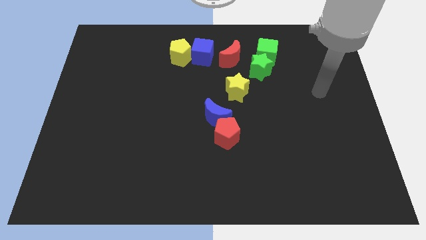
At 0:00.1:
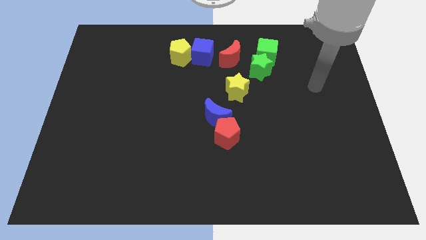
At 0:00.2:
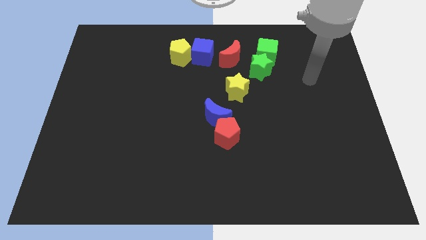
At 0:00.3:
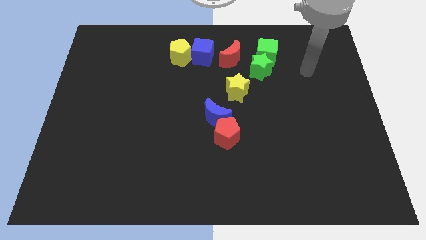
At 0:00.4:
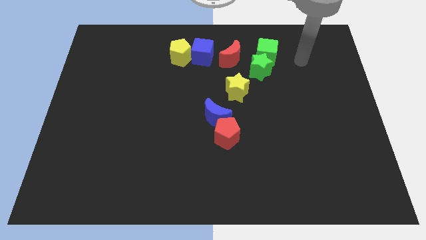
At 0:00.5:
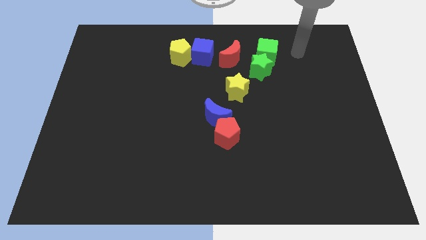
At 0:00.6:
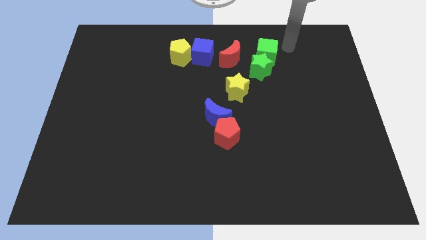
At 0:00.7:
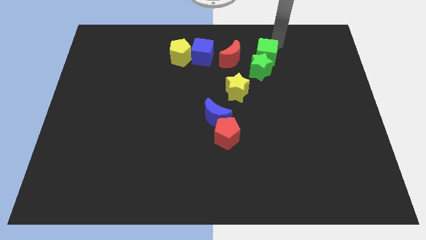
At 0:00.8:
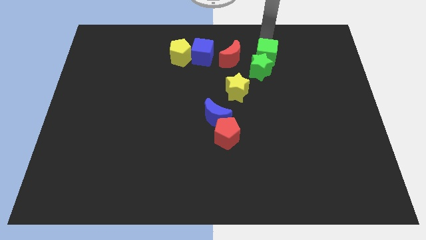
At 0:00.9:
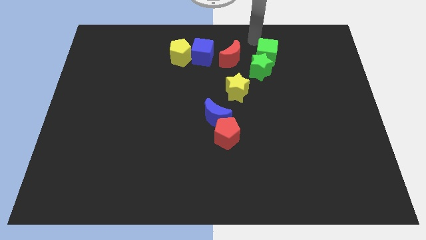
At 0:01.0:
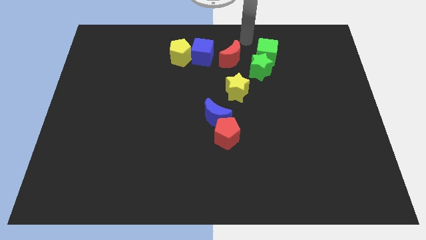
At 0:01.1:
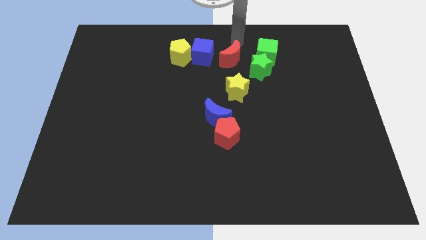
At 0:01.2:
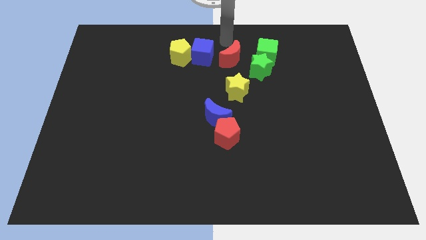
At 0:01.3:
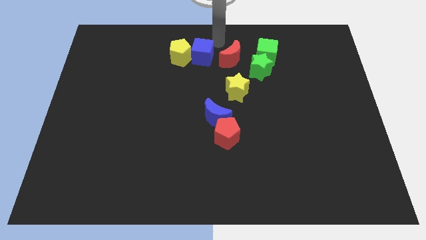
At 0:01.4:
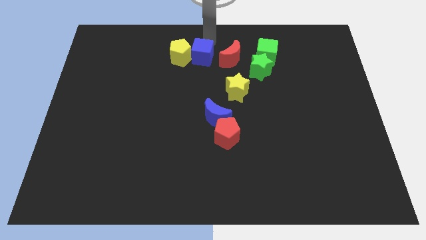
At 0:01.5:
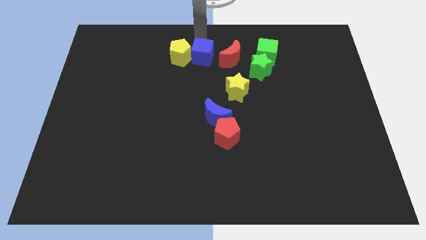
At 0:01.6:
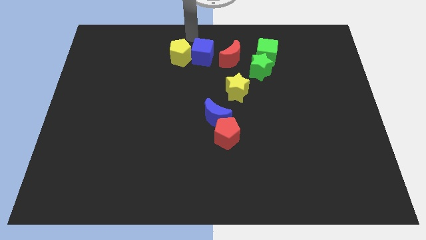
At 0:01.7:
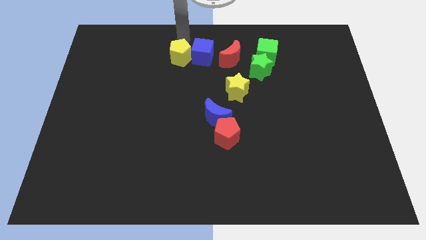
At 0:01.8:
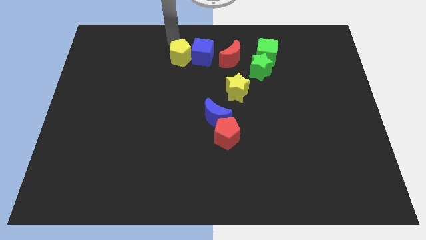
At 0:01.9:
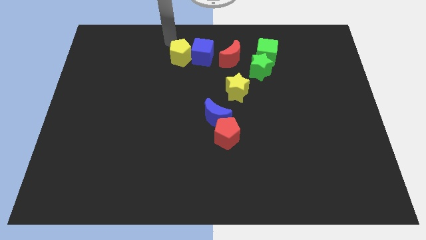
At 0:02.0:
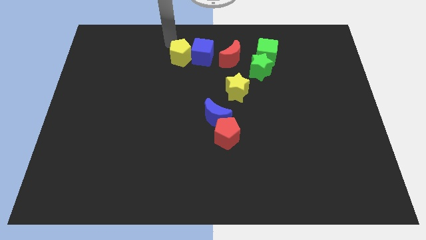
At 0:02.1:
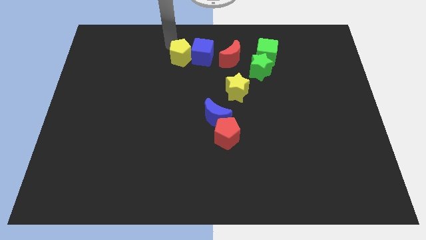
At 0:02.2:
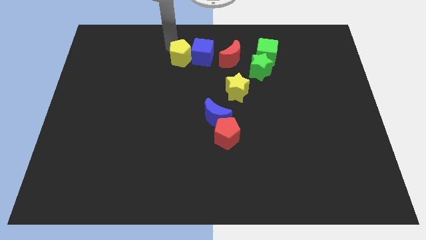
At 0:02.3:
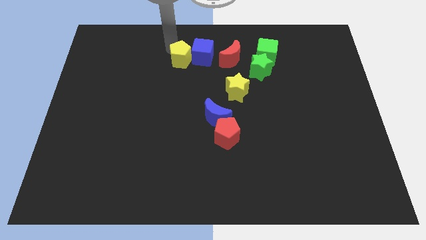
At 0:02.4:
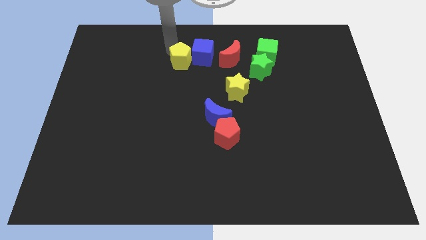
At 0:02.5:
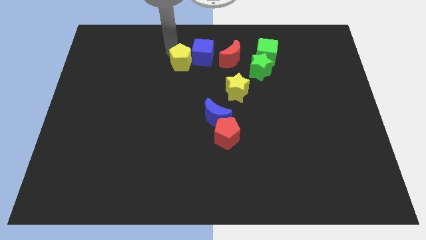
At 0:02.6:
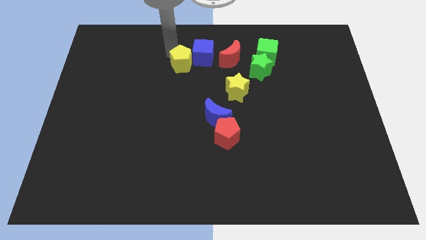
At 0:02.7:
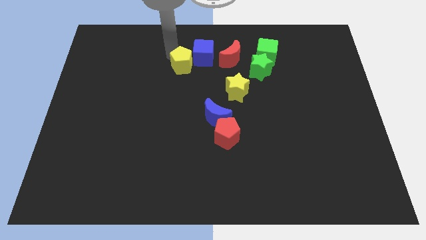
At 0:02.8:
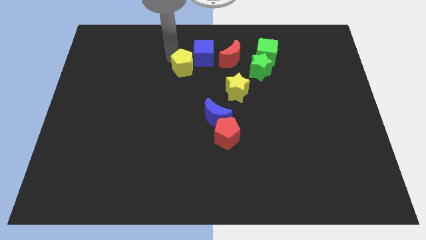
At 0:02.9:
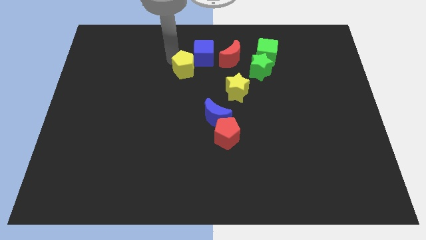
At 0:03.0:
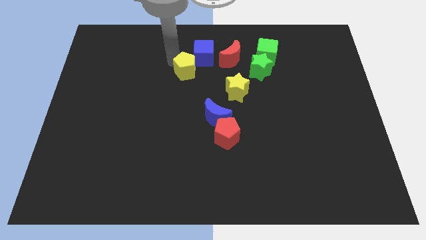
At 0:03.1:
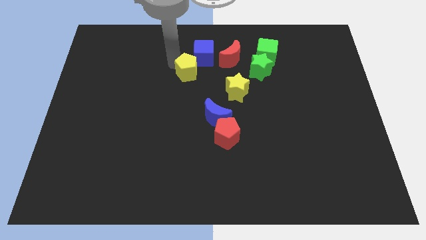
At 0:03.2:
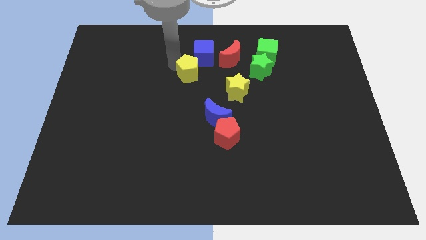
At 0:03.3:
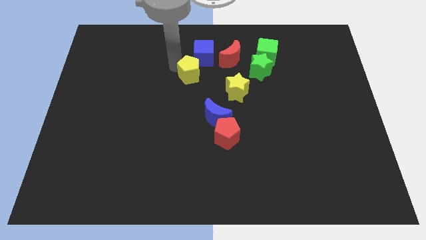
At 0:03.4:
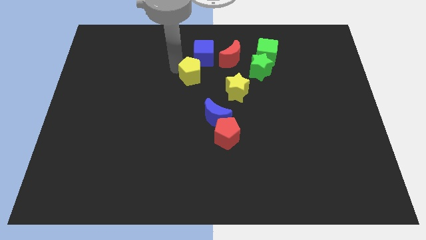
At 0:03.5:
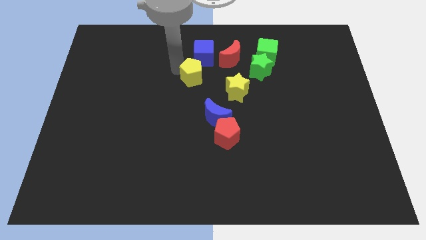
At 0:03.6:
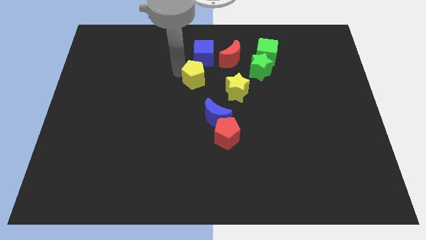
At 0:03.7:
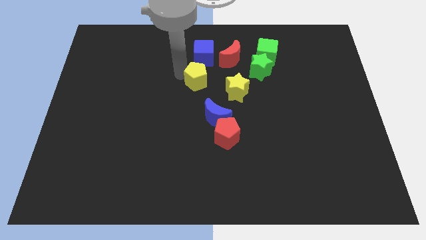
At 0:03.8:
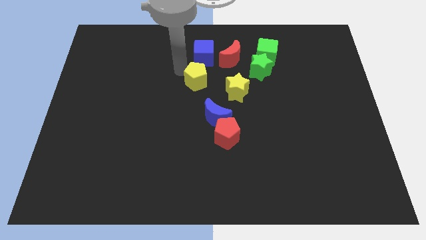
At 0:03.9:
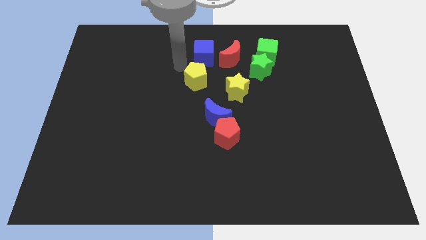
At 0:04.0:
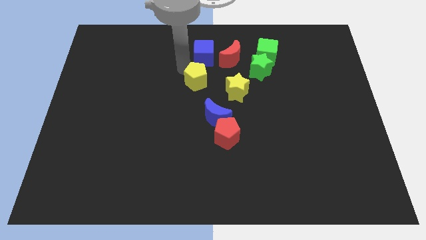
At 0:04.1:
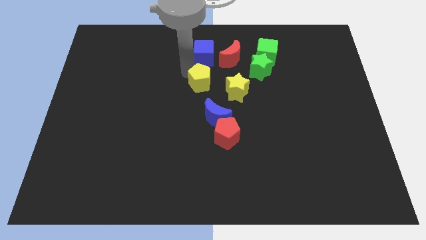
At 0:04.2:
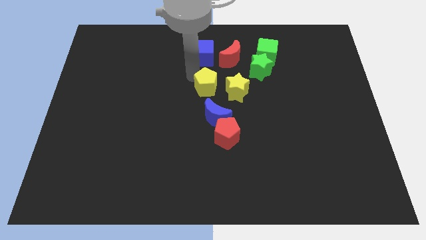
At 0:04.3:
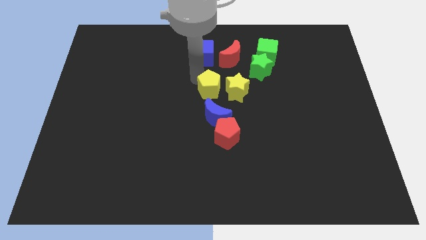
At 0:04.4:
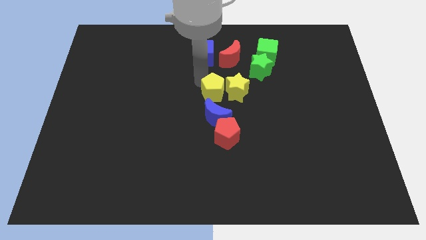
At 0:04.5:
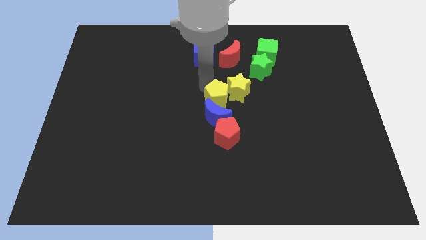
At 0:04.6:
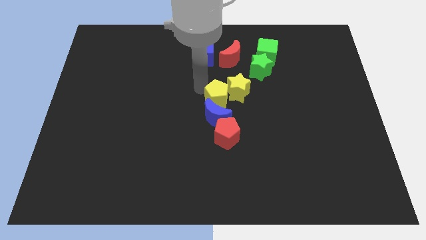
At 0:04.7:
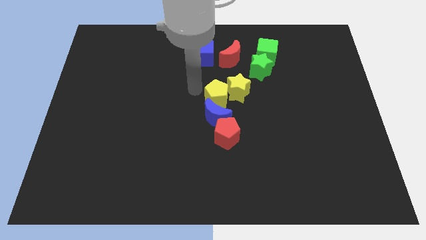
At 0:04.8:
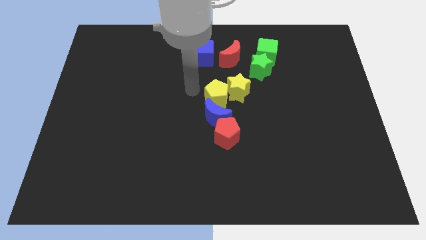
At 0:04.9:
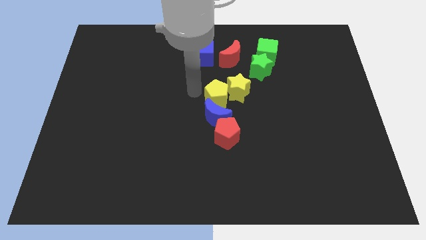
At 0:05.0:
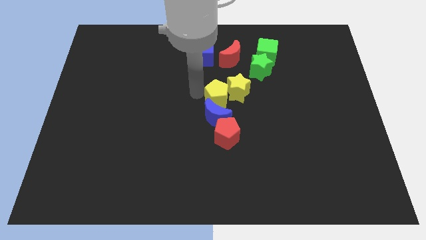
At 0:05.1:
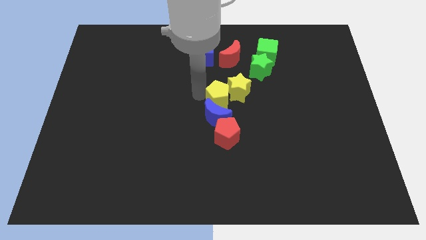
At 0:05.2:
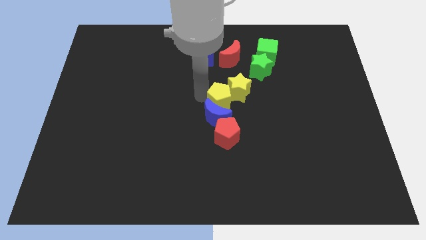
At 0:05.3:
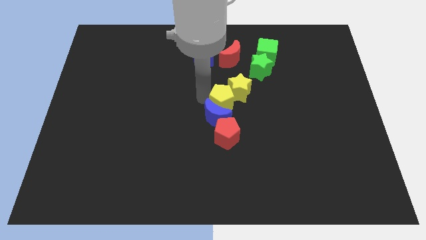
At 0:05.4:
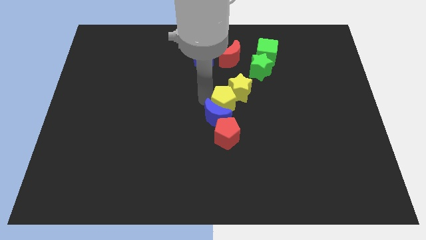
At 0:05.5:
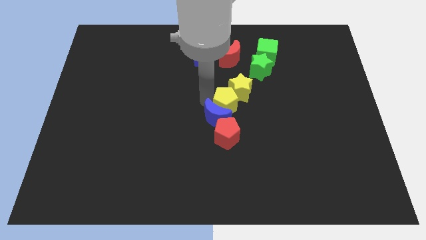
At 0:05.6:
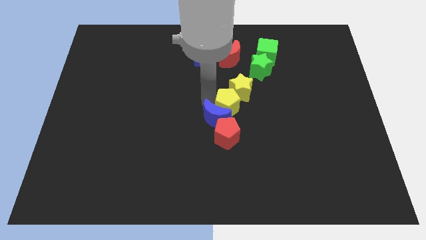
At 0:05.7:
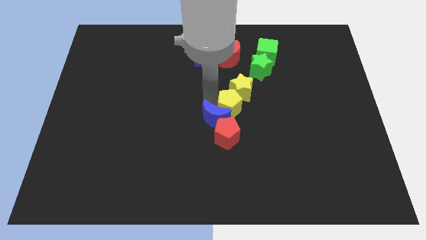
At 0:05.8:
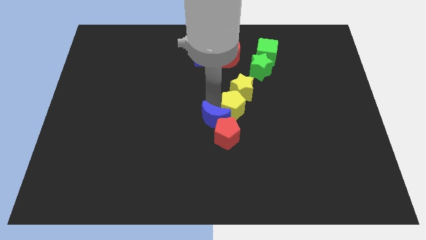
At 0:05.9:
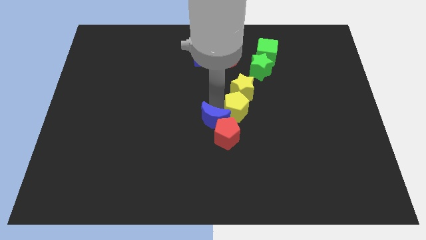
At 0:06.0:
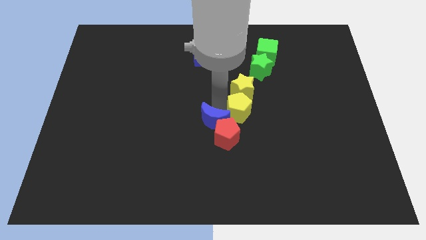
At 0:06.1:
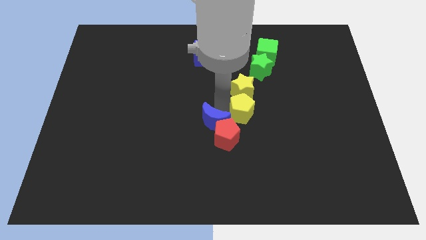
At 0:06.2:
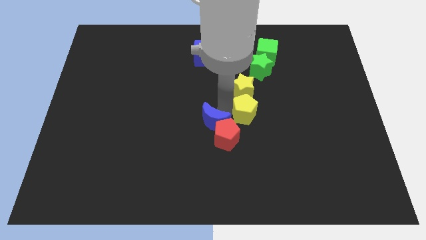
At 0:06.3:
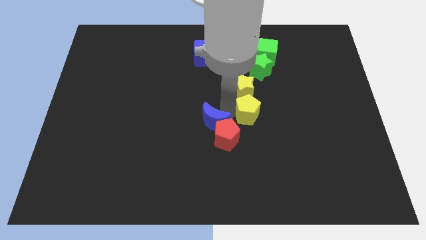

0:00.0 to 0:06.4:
slide the yellow pentagon to the bottom of the green star

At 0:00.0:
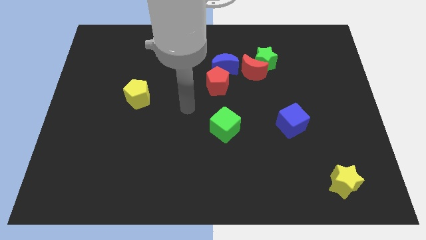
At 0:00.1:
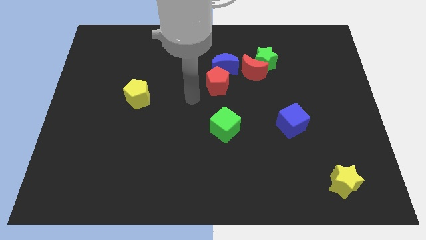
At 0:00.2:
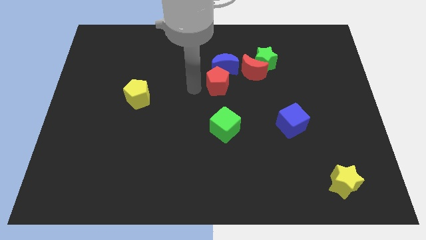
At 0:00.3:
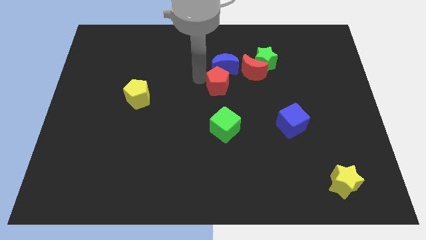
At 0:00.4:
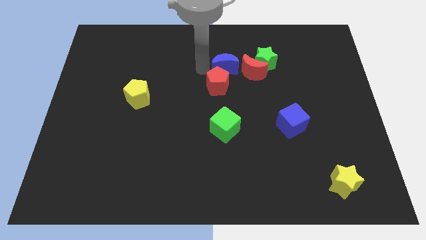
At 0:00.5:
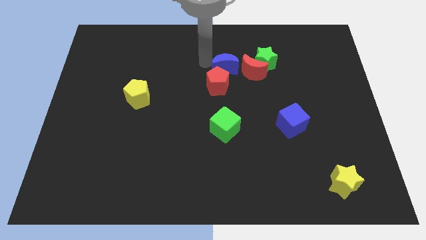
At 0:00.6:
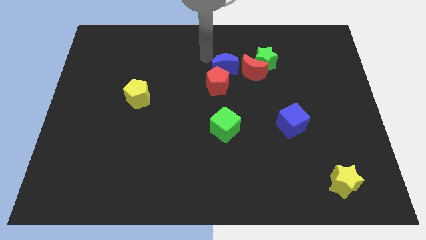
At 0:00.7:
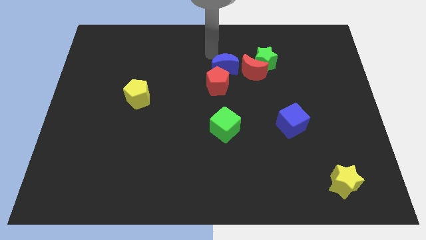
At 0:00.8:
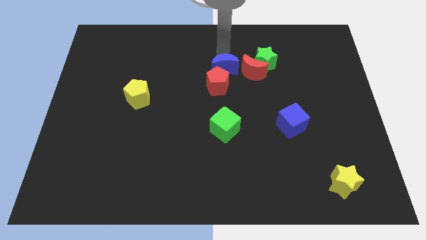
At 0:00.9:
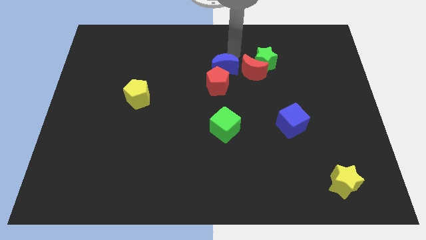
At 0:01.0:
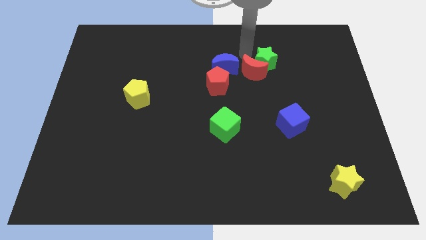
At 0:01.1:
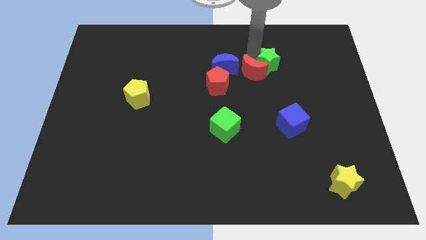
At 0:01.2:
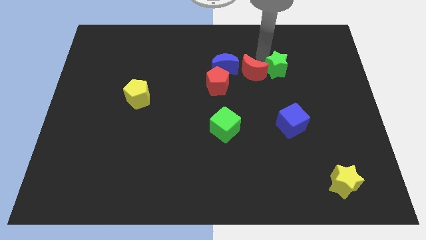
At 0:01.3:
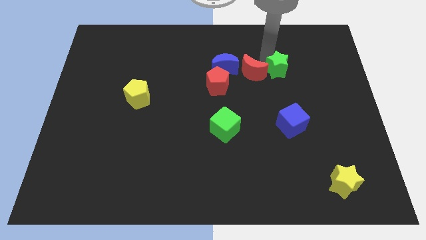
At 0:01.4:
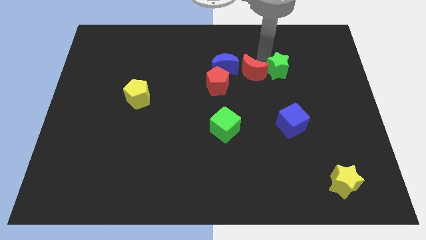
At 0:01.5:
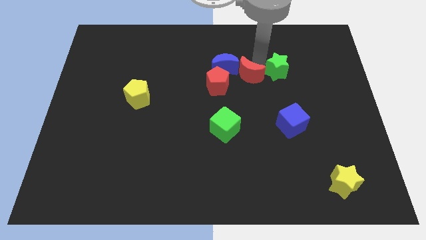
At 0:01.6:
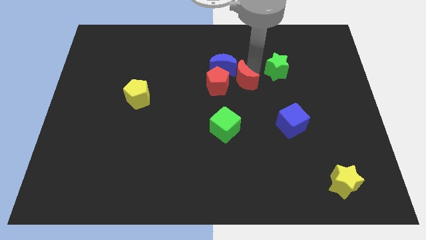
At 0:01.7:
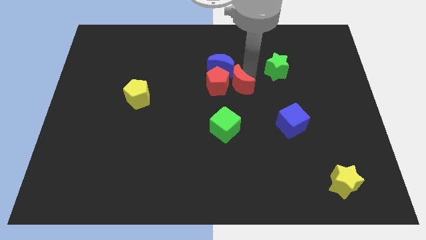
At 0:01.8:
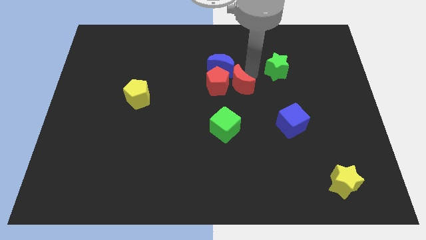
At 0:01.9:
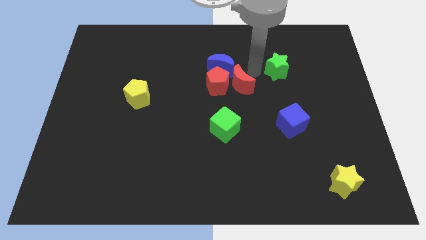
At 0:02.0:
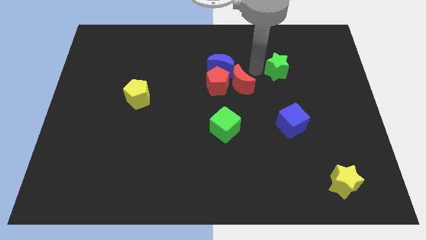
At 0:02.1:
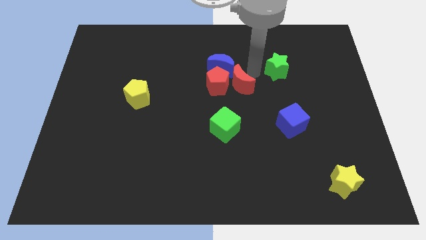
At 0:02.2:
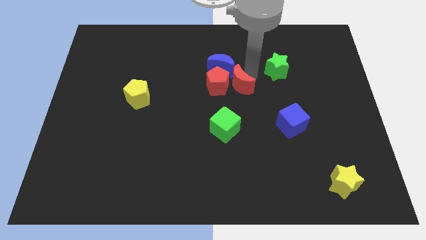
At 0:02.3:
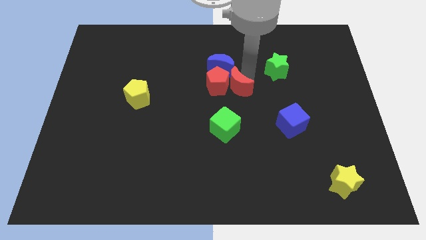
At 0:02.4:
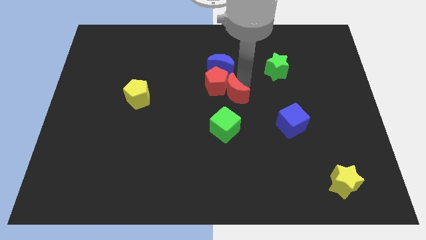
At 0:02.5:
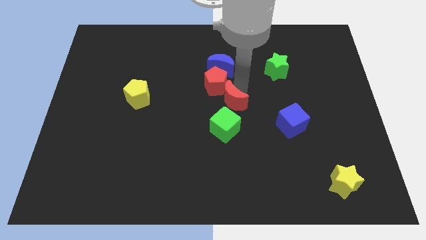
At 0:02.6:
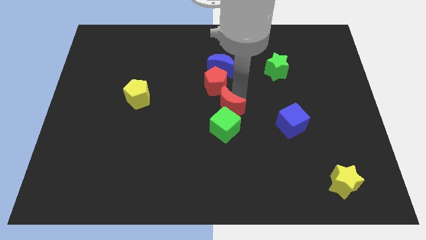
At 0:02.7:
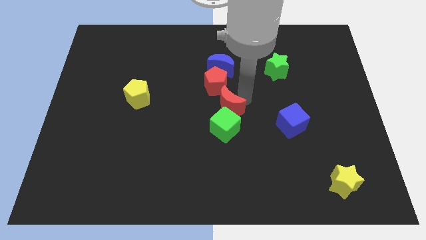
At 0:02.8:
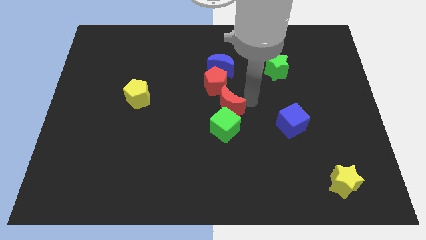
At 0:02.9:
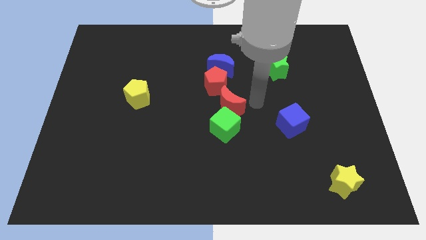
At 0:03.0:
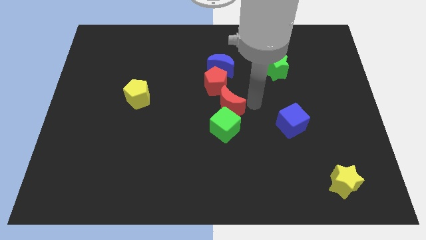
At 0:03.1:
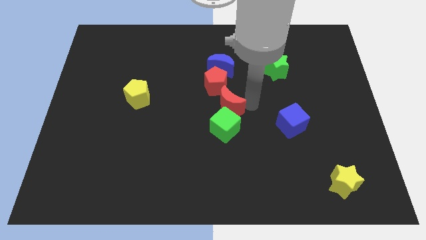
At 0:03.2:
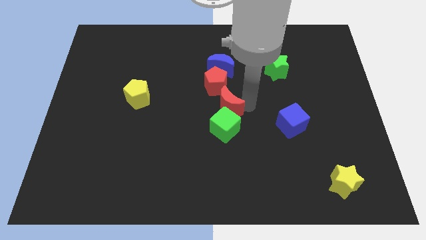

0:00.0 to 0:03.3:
push the red moon diagonally up and to the left of the green cube
